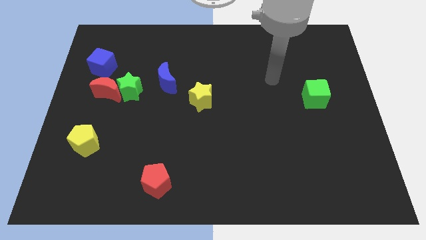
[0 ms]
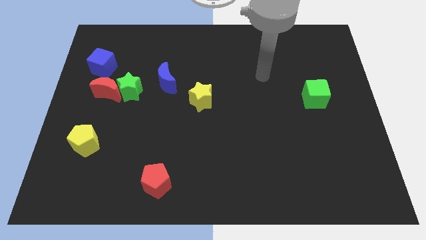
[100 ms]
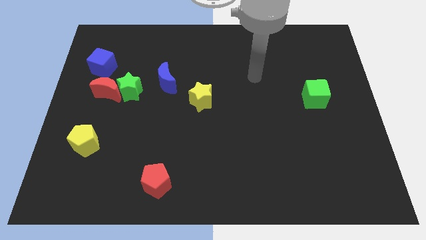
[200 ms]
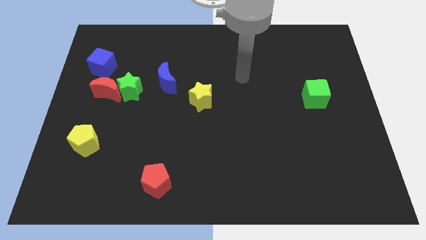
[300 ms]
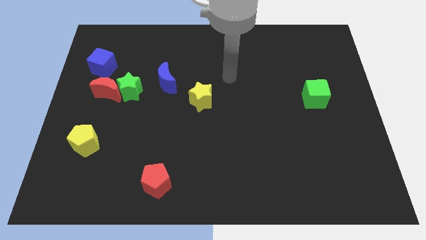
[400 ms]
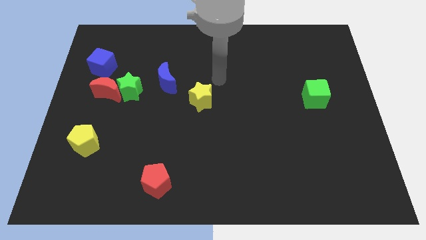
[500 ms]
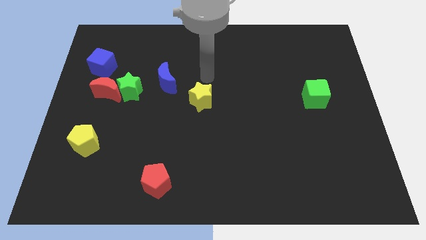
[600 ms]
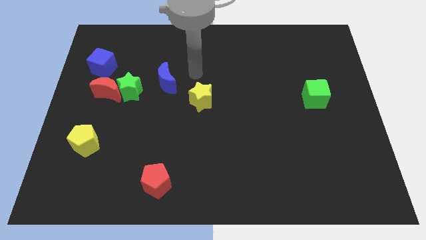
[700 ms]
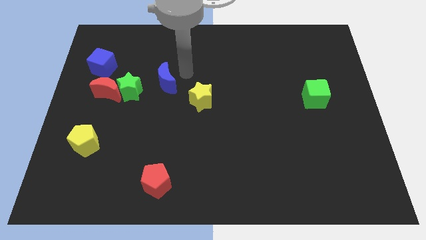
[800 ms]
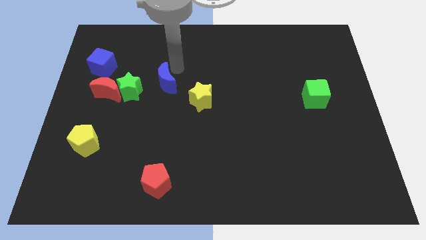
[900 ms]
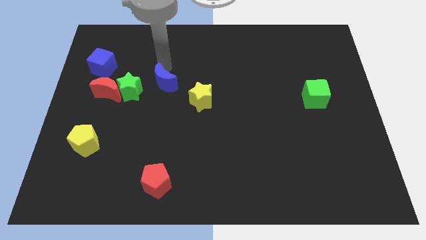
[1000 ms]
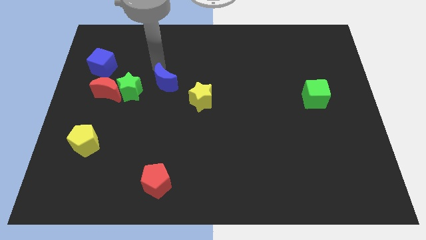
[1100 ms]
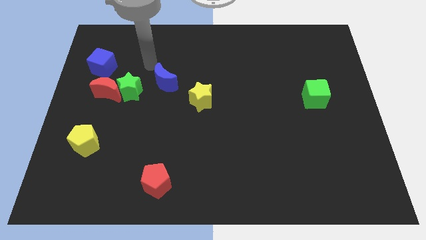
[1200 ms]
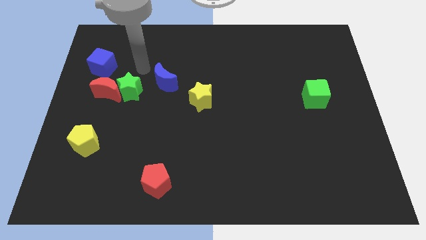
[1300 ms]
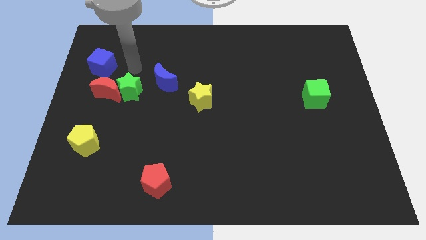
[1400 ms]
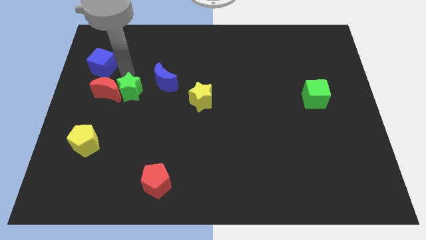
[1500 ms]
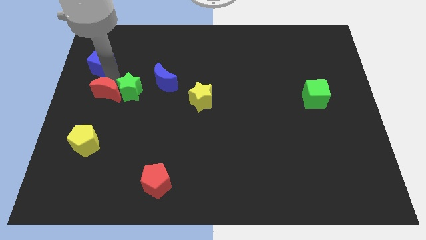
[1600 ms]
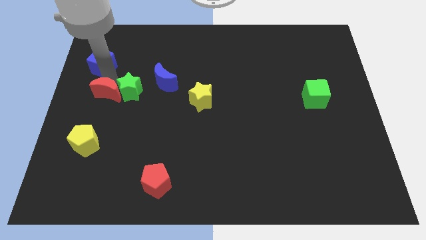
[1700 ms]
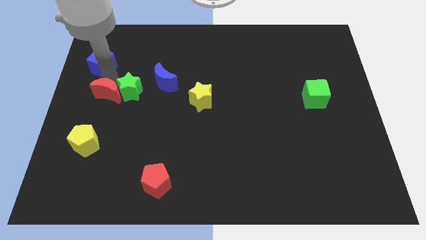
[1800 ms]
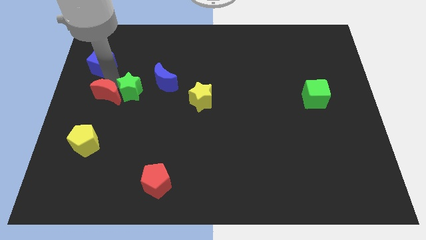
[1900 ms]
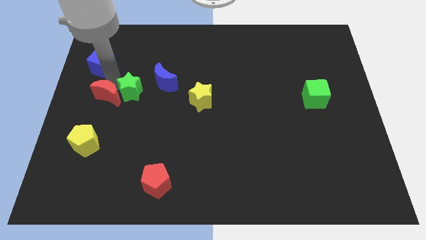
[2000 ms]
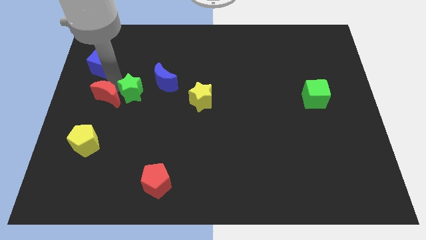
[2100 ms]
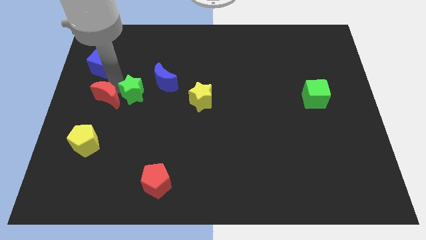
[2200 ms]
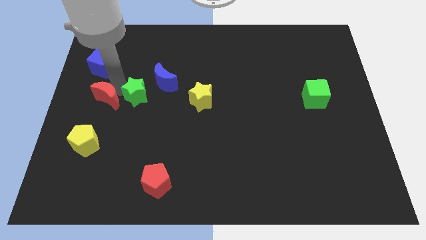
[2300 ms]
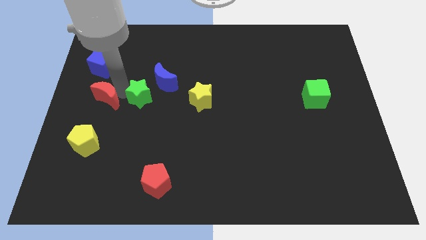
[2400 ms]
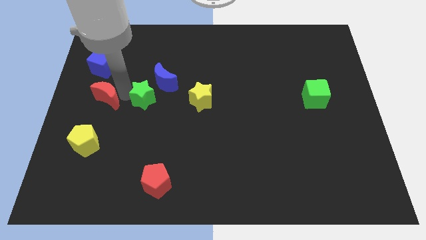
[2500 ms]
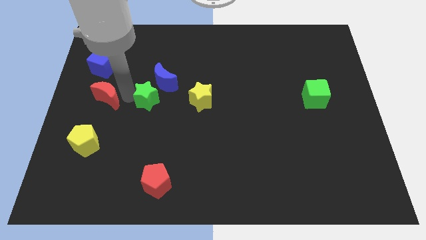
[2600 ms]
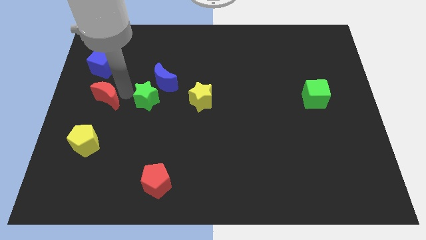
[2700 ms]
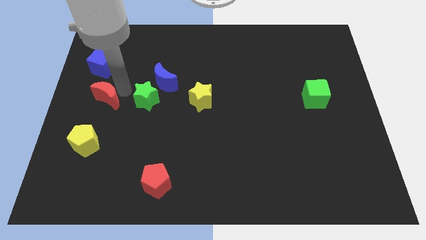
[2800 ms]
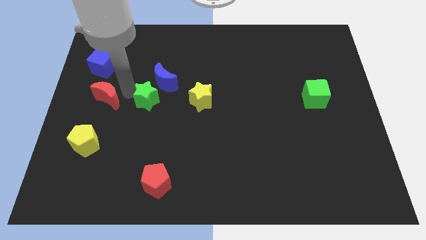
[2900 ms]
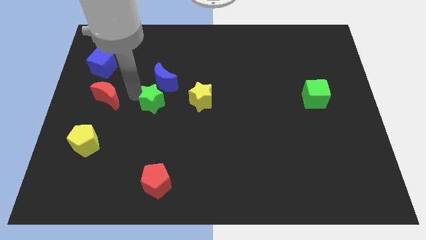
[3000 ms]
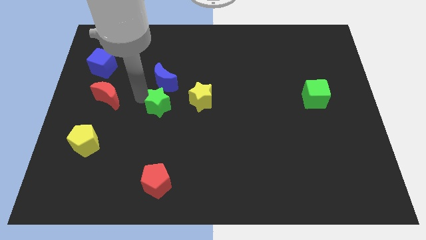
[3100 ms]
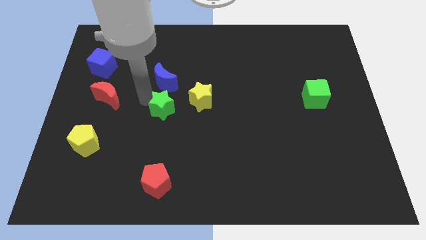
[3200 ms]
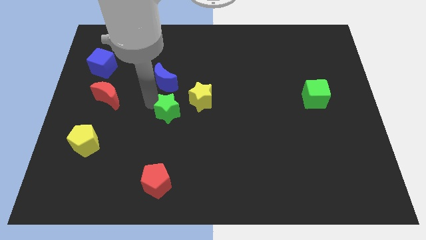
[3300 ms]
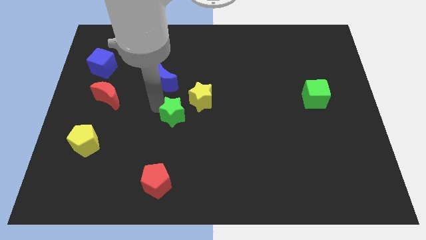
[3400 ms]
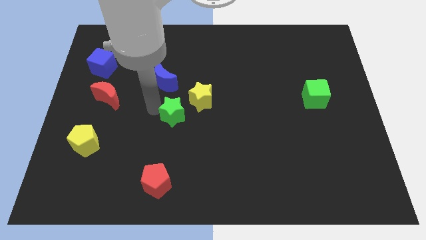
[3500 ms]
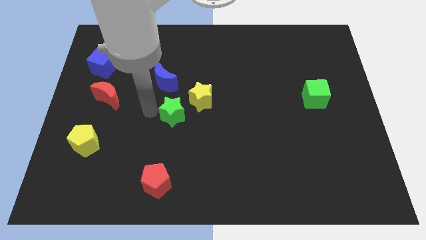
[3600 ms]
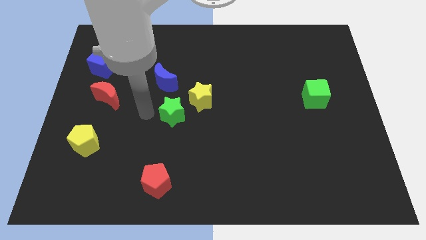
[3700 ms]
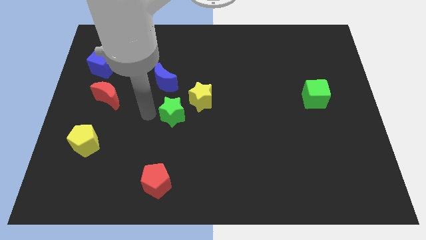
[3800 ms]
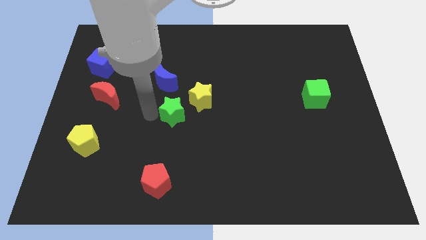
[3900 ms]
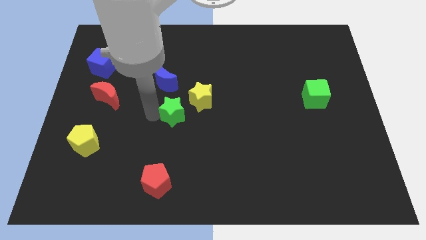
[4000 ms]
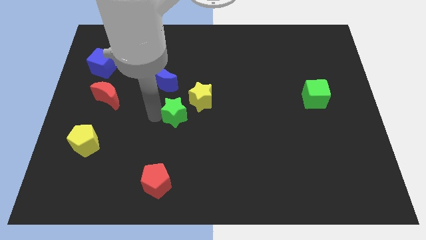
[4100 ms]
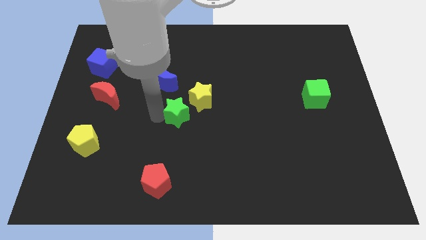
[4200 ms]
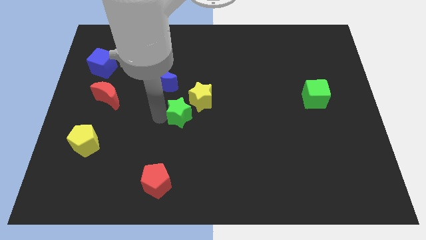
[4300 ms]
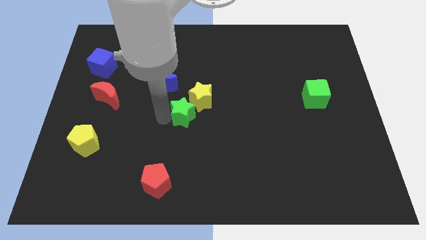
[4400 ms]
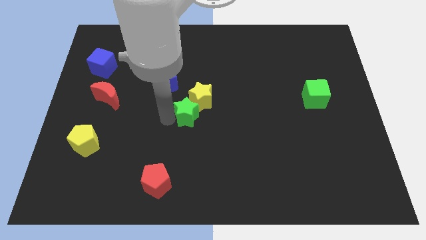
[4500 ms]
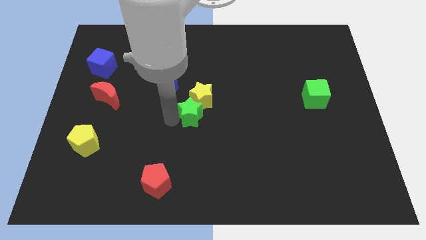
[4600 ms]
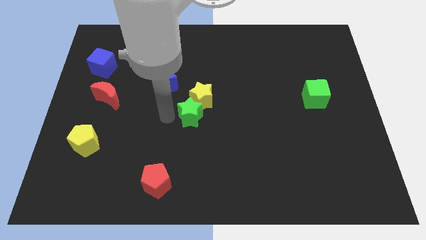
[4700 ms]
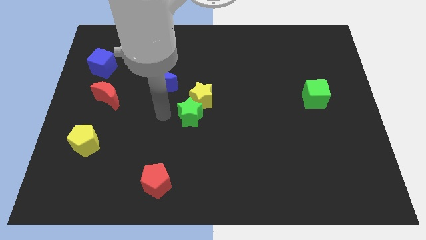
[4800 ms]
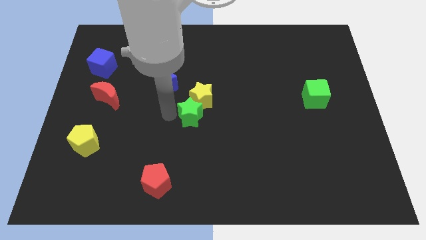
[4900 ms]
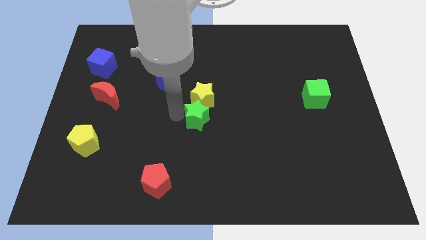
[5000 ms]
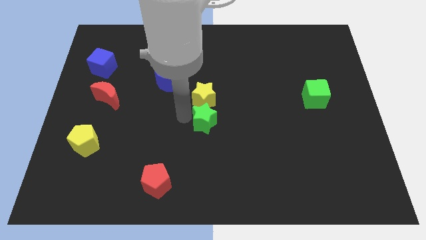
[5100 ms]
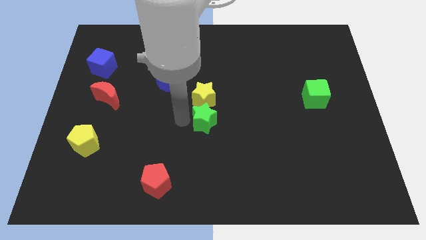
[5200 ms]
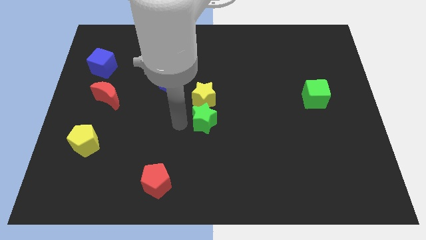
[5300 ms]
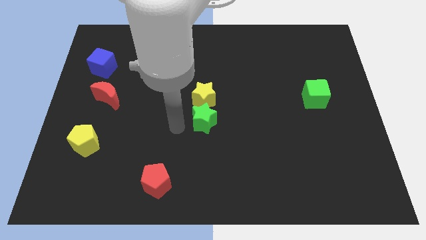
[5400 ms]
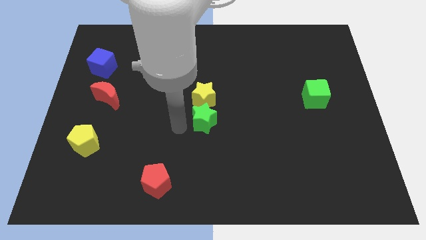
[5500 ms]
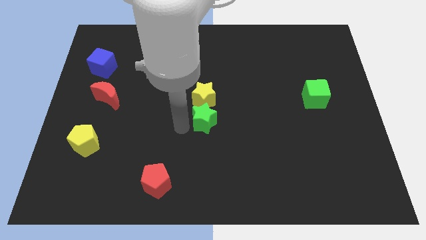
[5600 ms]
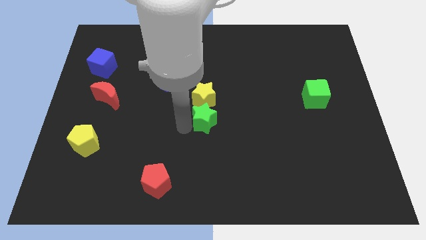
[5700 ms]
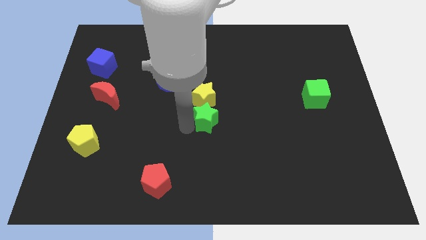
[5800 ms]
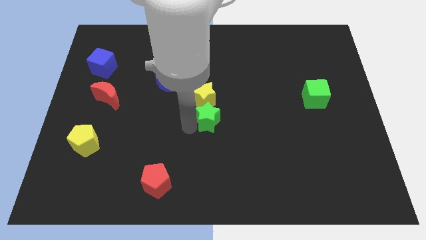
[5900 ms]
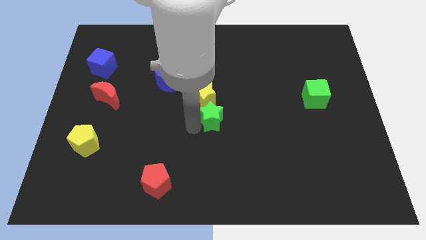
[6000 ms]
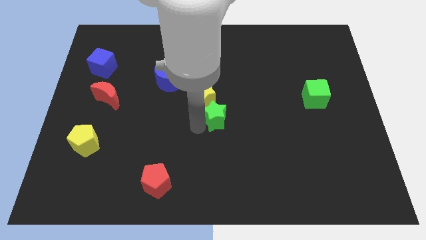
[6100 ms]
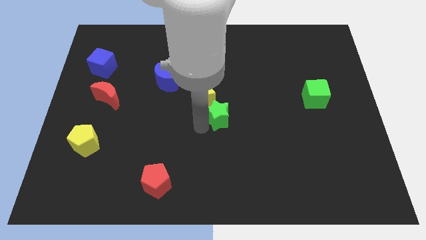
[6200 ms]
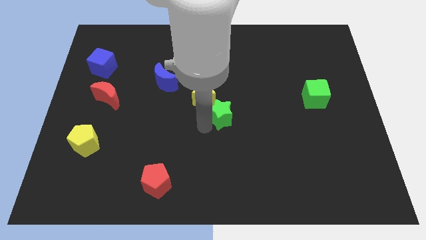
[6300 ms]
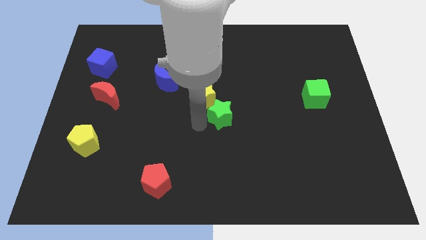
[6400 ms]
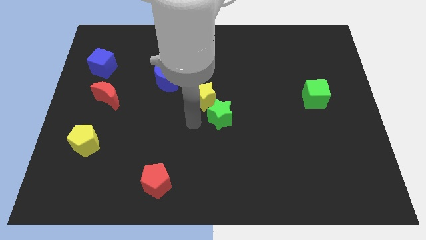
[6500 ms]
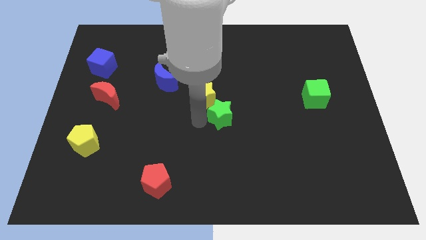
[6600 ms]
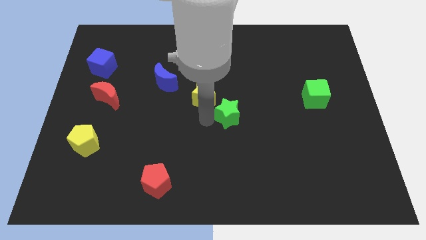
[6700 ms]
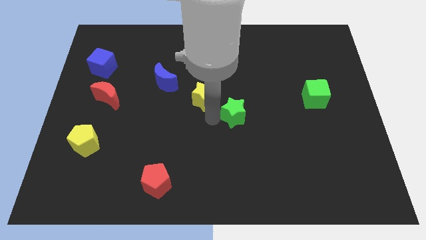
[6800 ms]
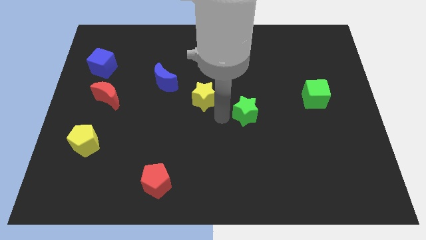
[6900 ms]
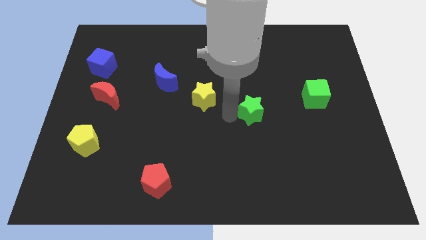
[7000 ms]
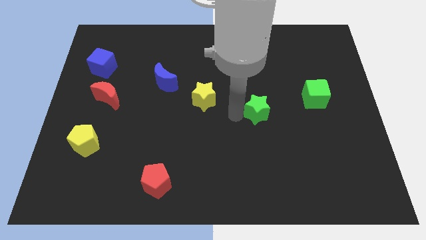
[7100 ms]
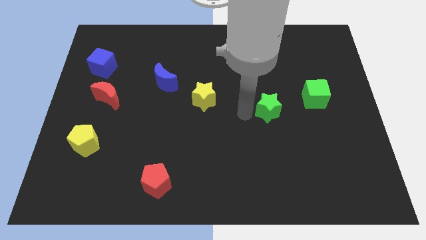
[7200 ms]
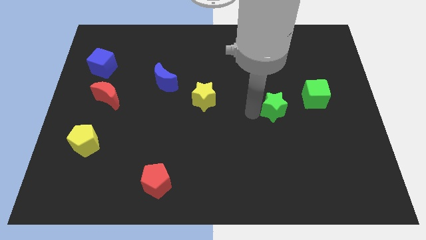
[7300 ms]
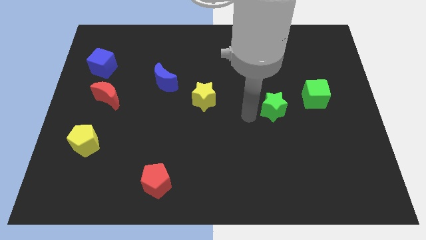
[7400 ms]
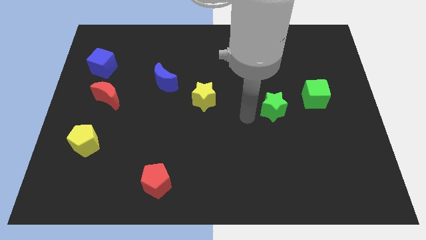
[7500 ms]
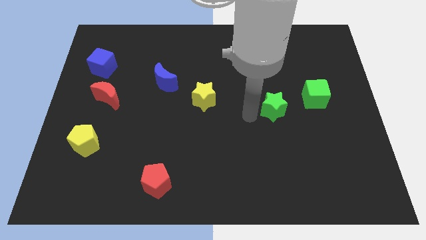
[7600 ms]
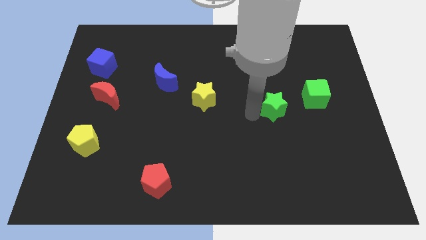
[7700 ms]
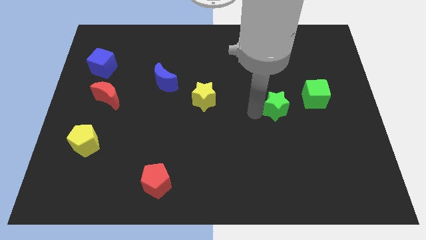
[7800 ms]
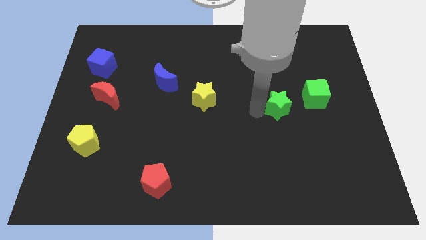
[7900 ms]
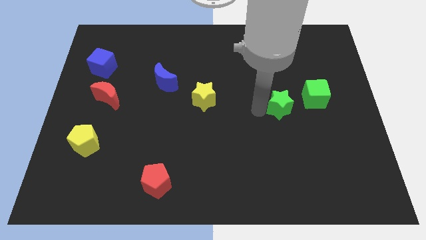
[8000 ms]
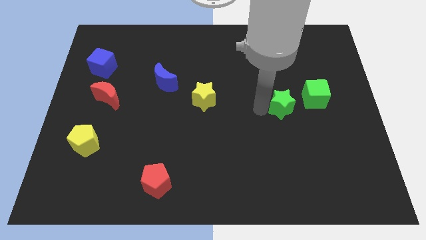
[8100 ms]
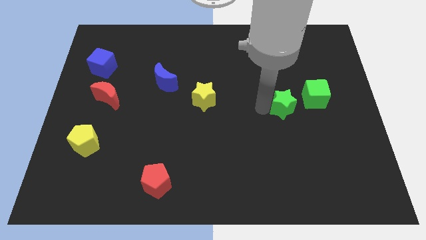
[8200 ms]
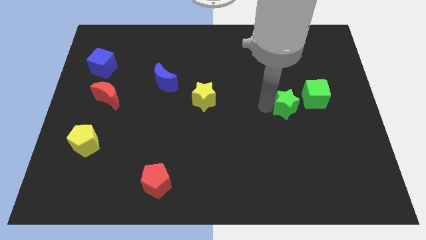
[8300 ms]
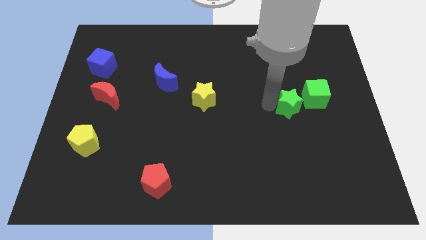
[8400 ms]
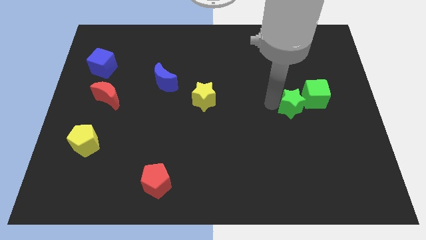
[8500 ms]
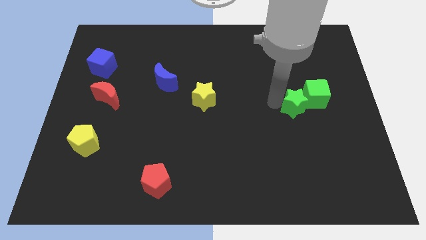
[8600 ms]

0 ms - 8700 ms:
slide the green star towards the green cube
